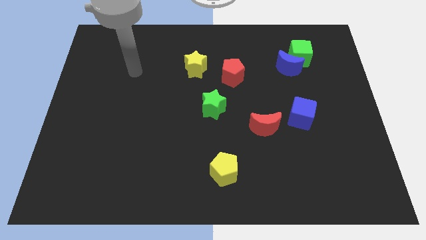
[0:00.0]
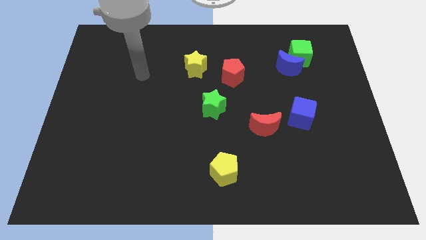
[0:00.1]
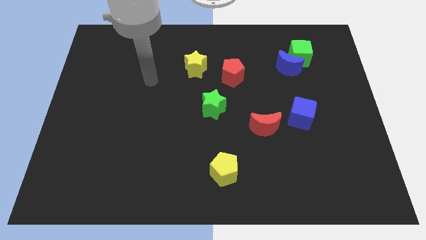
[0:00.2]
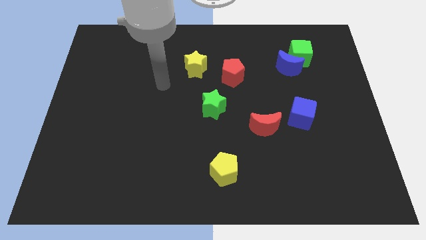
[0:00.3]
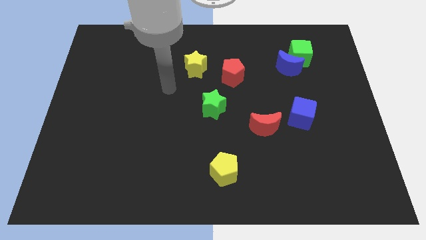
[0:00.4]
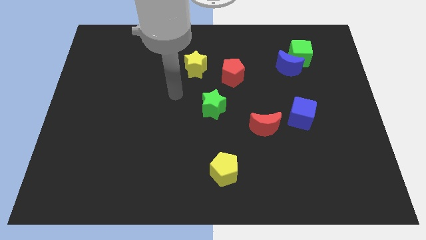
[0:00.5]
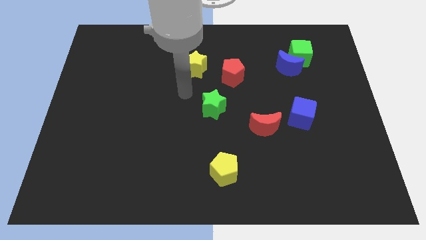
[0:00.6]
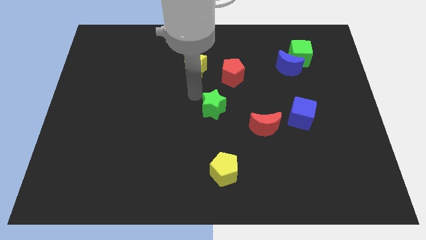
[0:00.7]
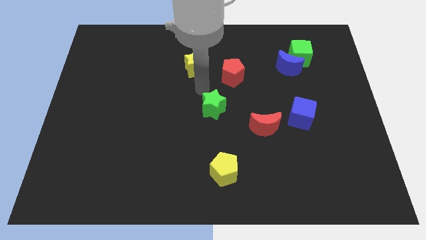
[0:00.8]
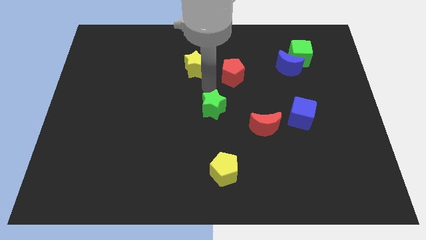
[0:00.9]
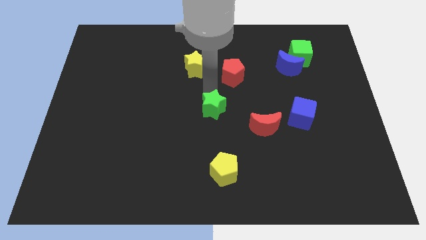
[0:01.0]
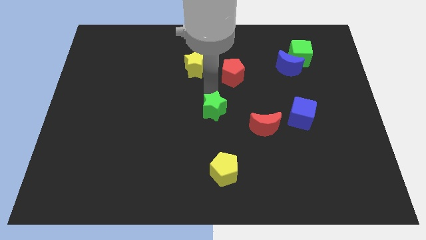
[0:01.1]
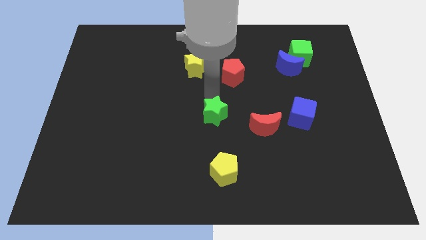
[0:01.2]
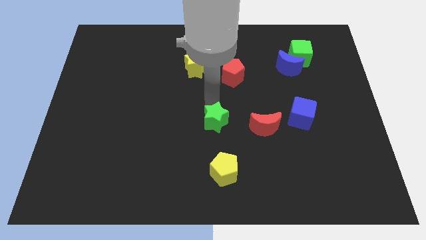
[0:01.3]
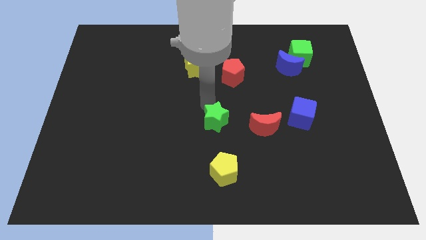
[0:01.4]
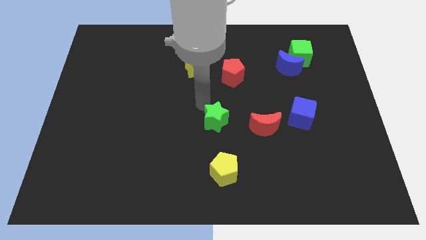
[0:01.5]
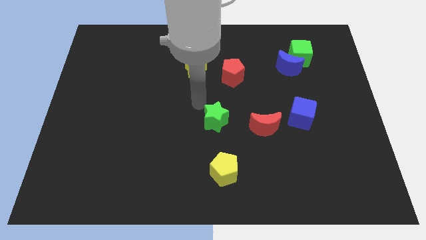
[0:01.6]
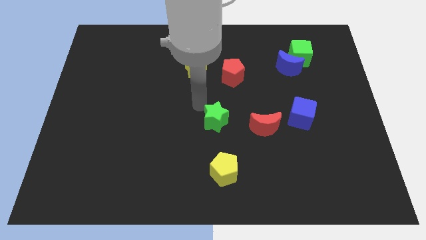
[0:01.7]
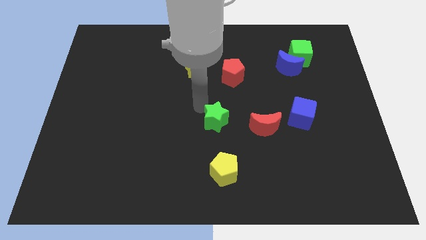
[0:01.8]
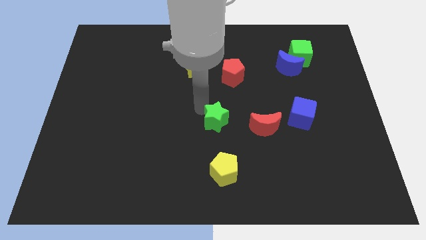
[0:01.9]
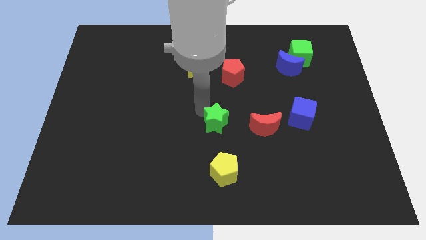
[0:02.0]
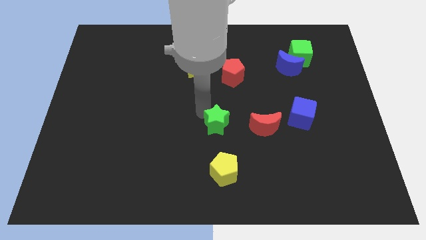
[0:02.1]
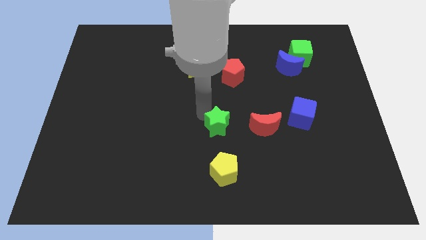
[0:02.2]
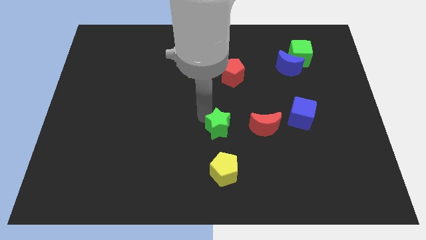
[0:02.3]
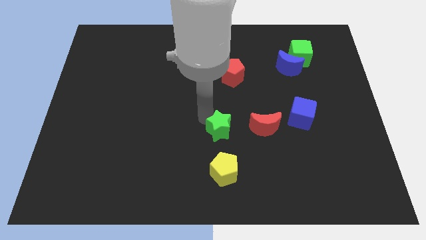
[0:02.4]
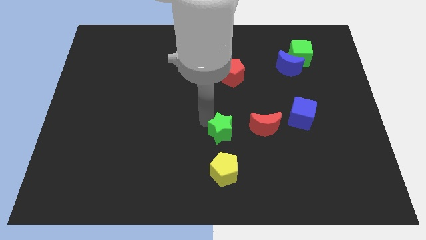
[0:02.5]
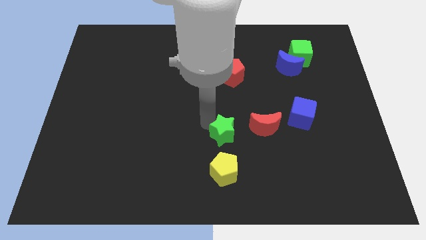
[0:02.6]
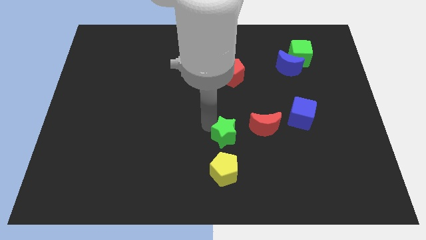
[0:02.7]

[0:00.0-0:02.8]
move the green star down and then to the right slightly

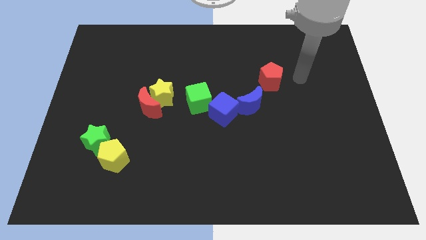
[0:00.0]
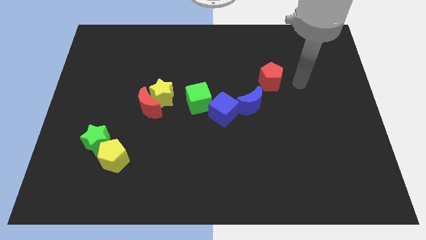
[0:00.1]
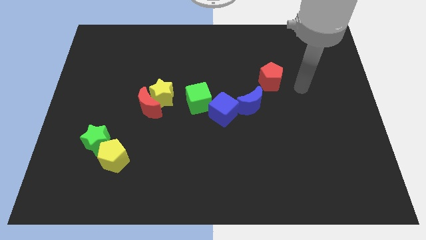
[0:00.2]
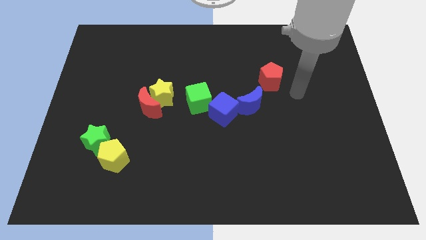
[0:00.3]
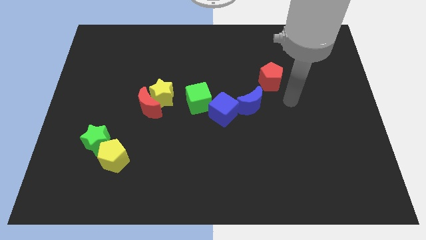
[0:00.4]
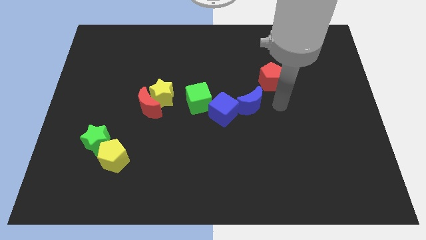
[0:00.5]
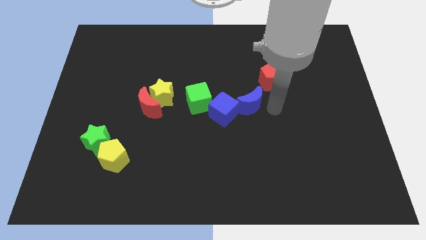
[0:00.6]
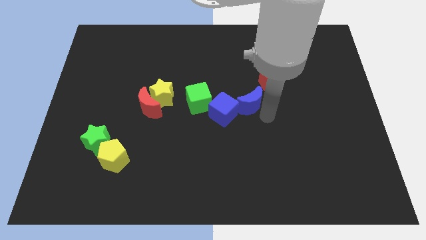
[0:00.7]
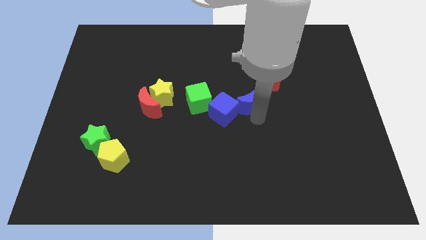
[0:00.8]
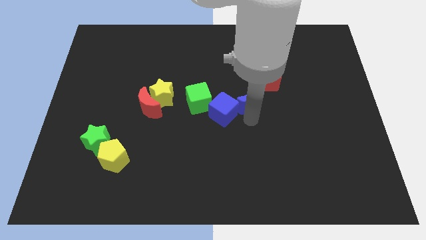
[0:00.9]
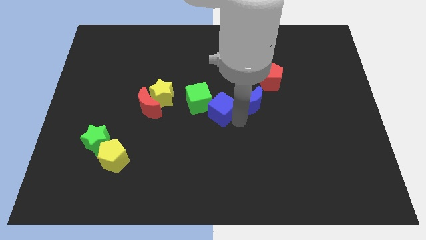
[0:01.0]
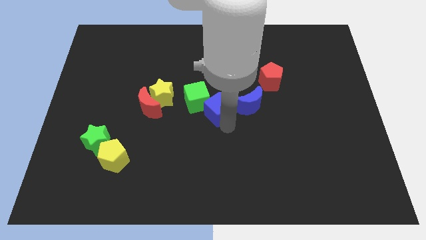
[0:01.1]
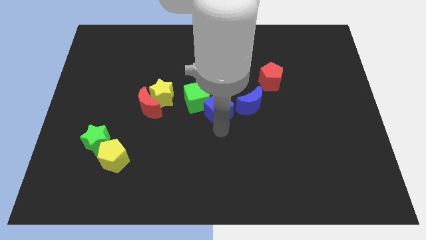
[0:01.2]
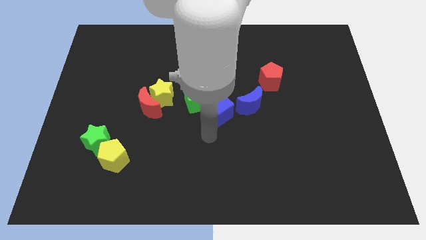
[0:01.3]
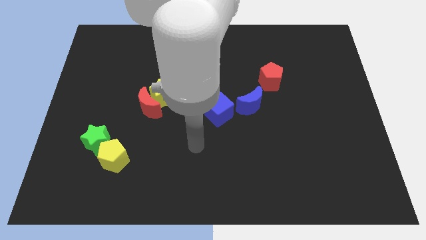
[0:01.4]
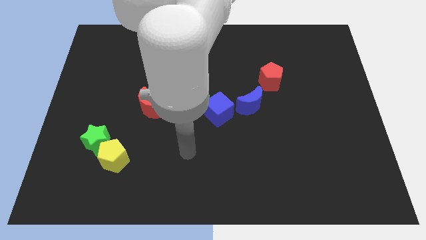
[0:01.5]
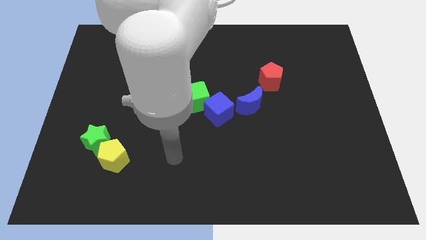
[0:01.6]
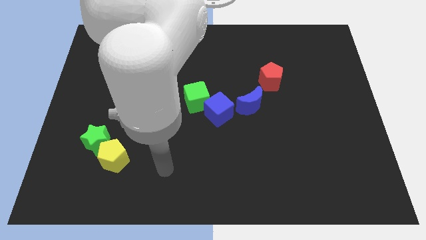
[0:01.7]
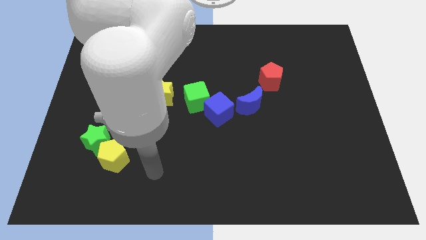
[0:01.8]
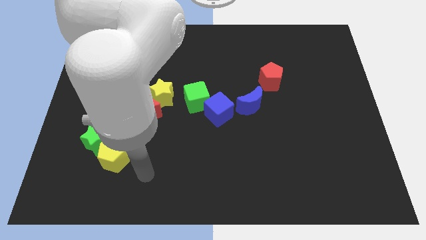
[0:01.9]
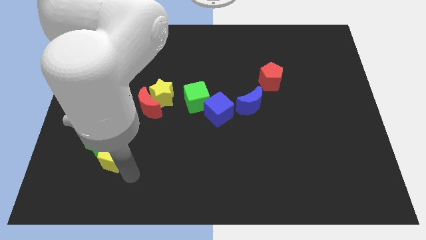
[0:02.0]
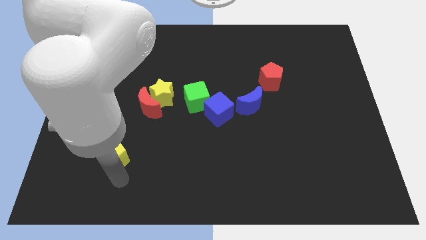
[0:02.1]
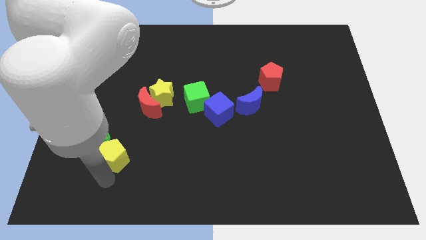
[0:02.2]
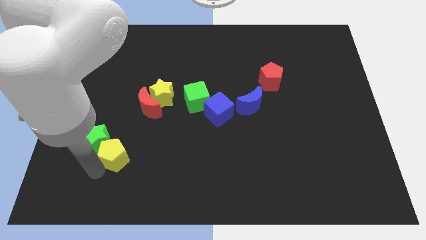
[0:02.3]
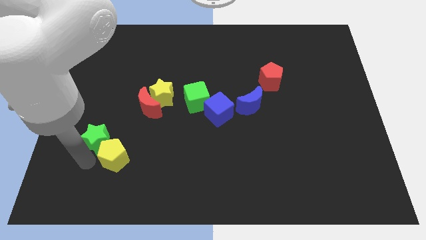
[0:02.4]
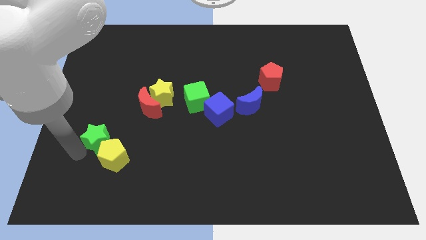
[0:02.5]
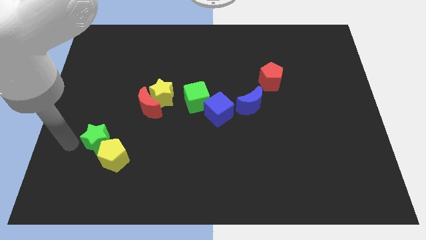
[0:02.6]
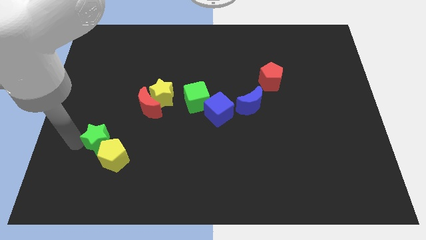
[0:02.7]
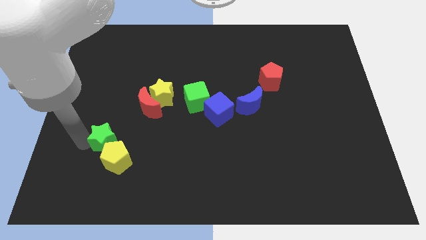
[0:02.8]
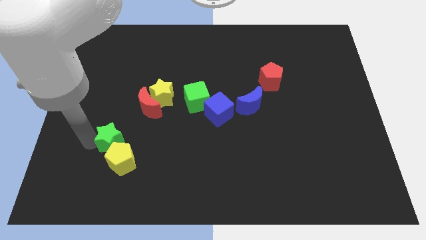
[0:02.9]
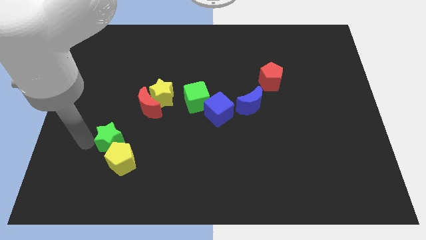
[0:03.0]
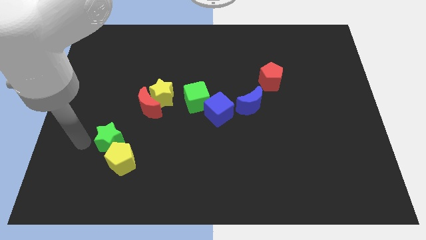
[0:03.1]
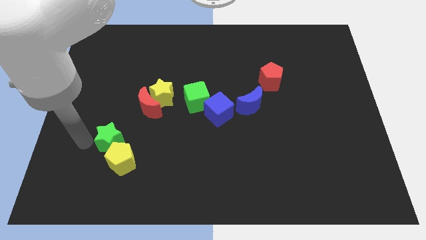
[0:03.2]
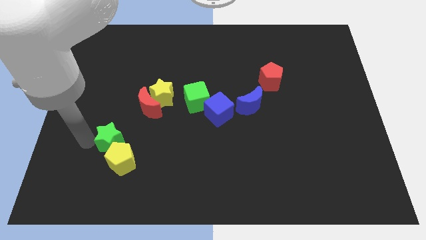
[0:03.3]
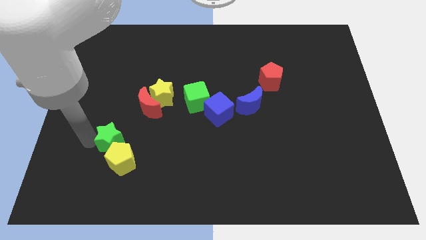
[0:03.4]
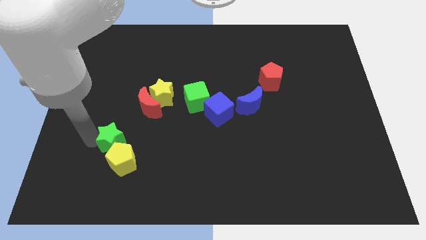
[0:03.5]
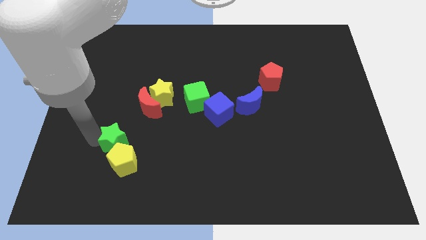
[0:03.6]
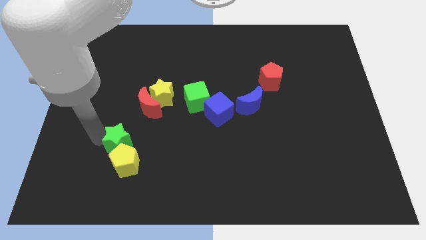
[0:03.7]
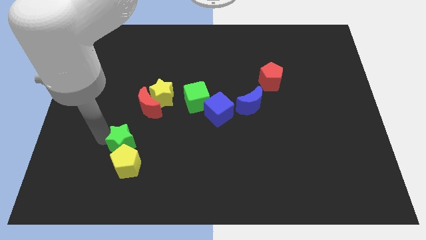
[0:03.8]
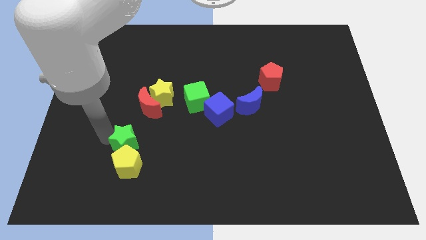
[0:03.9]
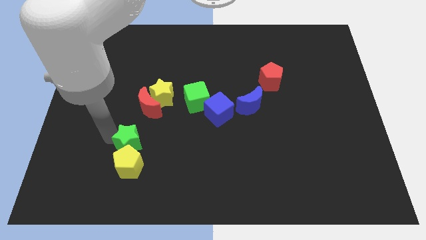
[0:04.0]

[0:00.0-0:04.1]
slightly push the green star right

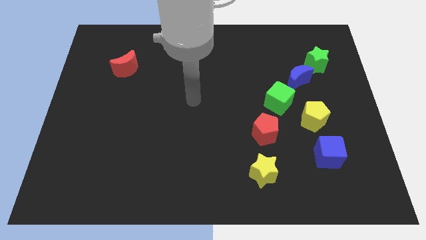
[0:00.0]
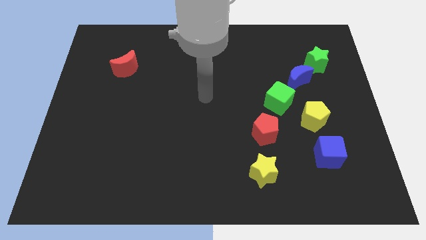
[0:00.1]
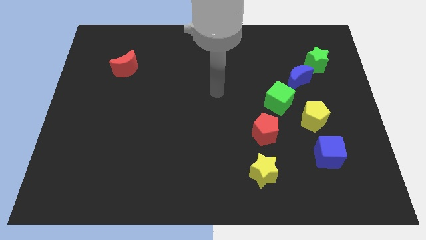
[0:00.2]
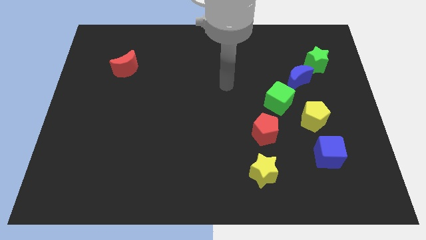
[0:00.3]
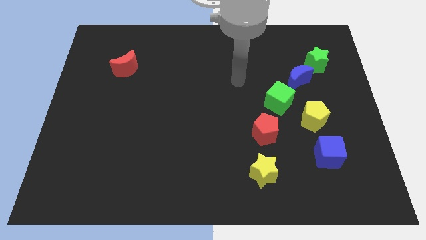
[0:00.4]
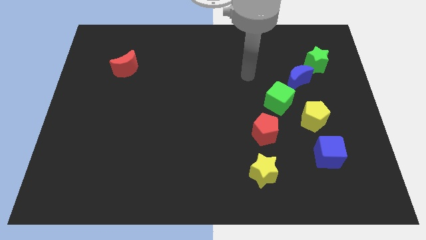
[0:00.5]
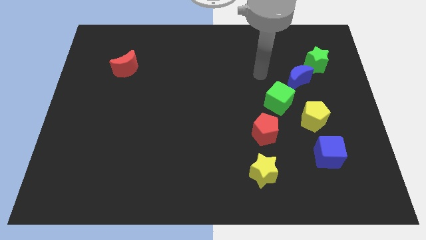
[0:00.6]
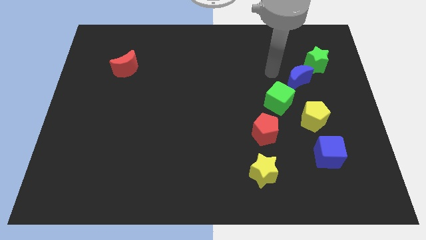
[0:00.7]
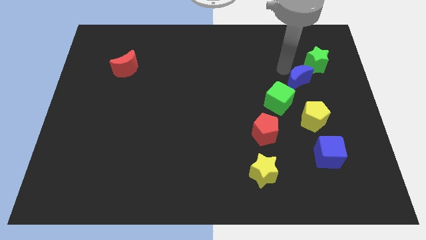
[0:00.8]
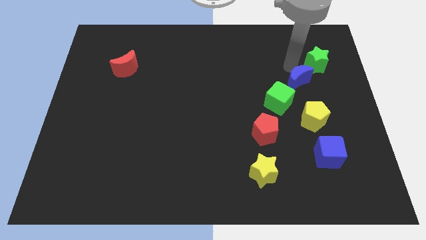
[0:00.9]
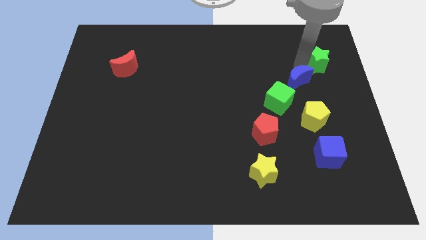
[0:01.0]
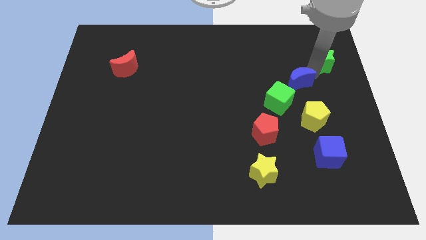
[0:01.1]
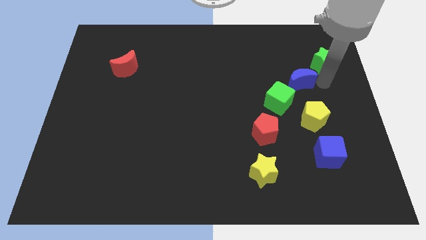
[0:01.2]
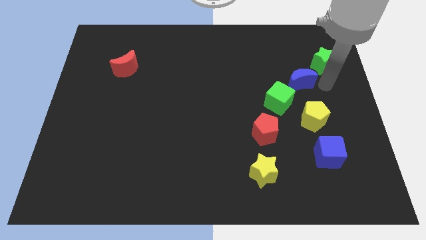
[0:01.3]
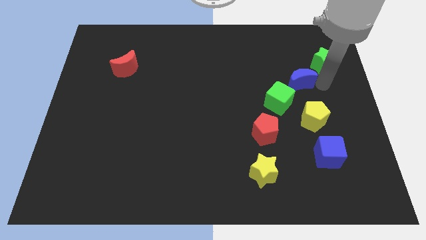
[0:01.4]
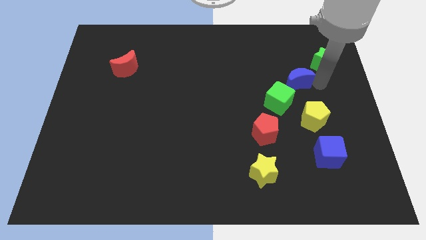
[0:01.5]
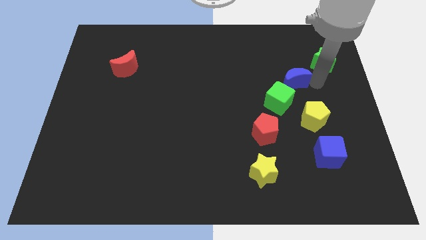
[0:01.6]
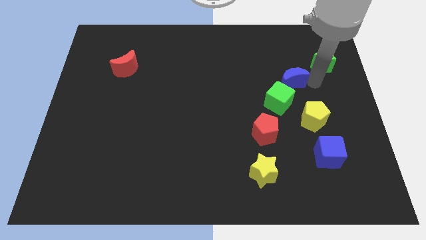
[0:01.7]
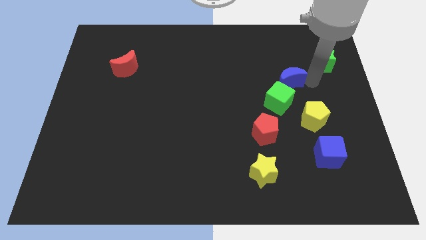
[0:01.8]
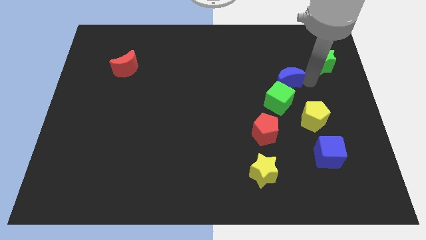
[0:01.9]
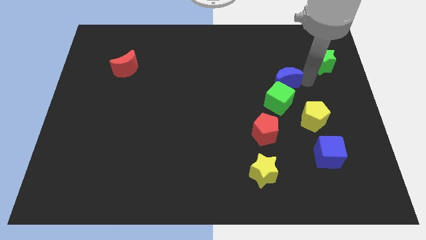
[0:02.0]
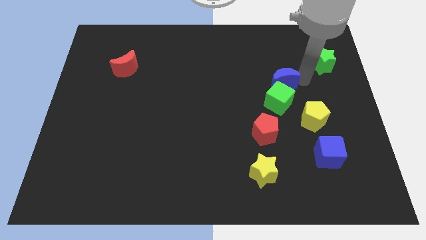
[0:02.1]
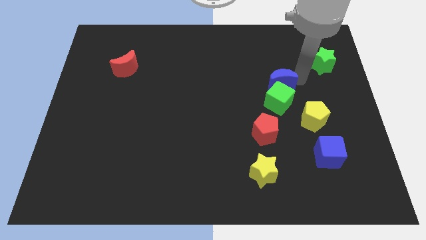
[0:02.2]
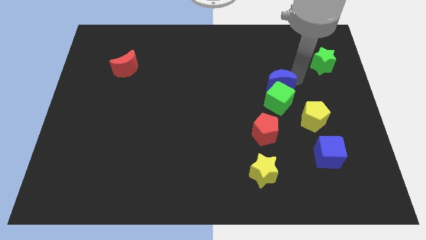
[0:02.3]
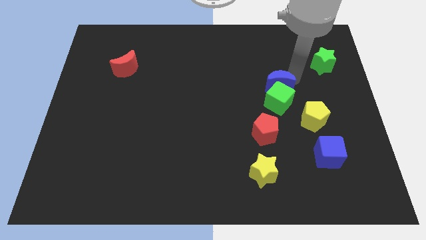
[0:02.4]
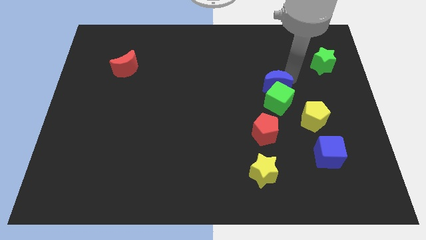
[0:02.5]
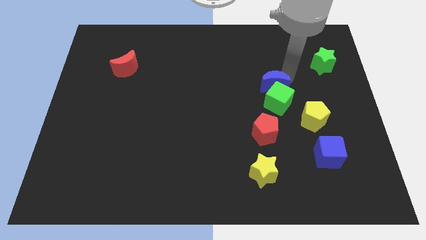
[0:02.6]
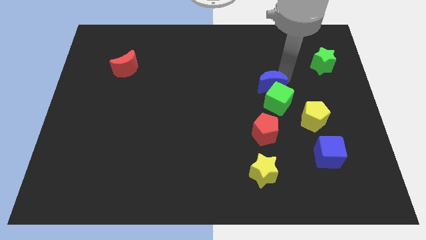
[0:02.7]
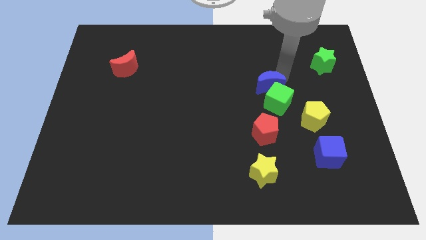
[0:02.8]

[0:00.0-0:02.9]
slightly push the blue moon left
